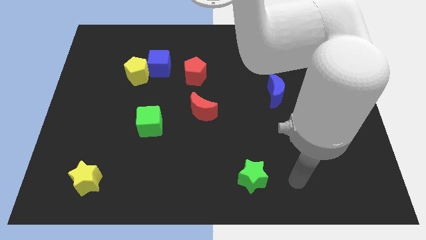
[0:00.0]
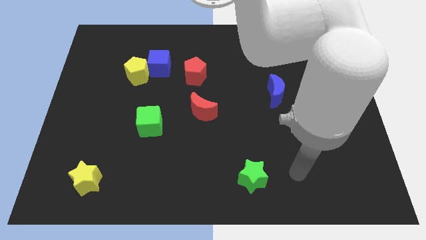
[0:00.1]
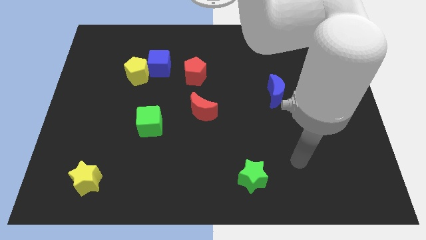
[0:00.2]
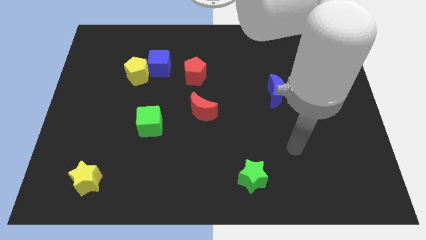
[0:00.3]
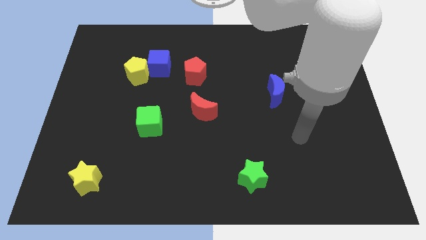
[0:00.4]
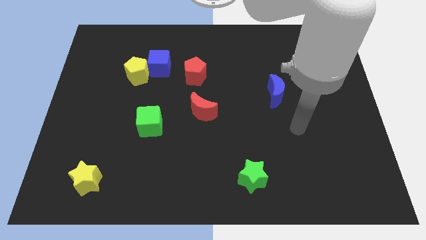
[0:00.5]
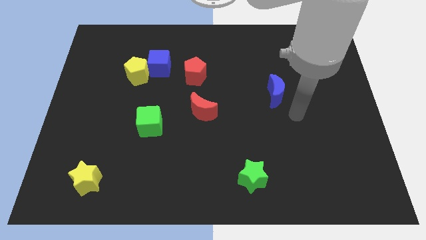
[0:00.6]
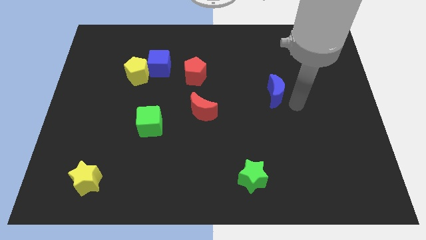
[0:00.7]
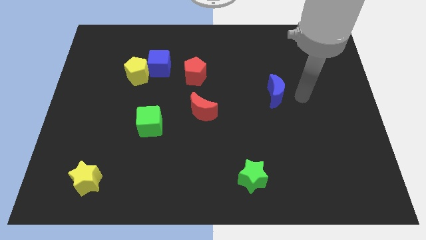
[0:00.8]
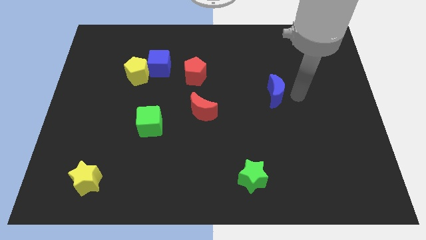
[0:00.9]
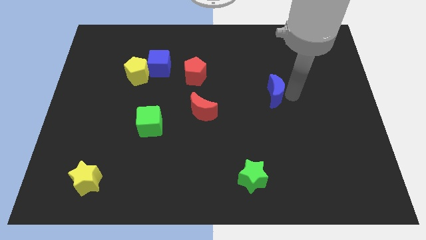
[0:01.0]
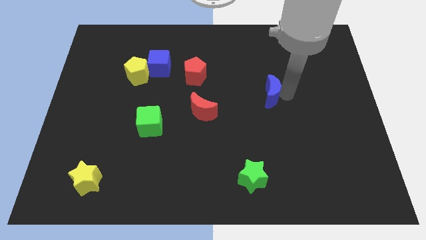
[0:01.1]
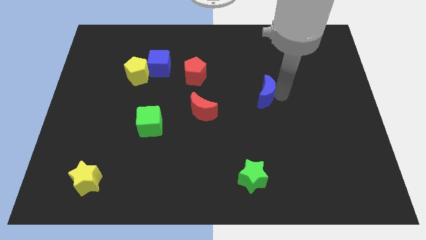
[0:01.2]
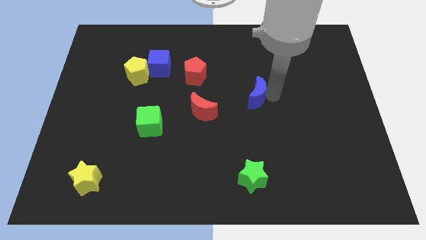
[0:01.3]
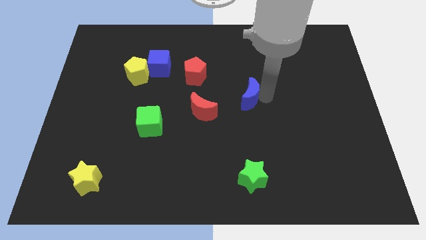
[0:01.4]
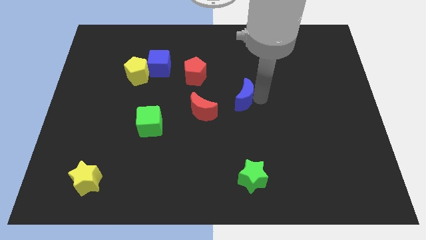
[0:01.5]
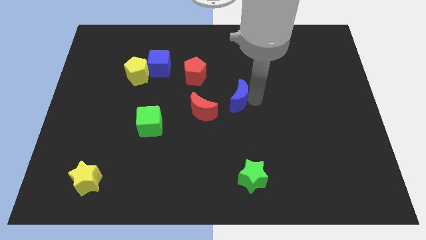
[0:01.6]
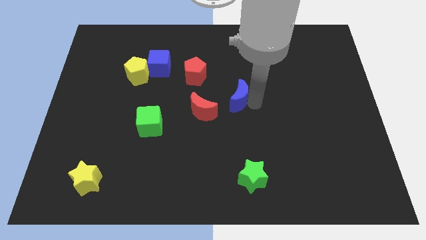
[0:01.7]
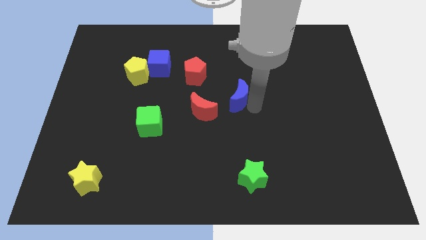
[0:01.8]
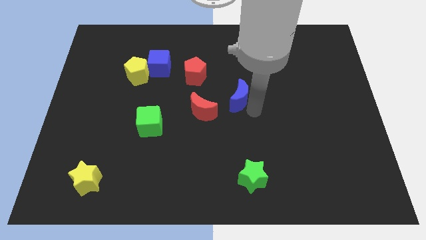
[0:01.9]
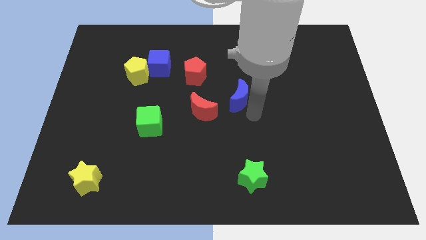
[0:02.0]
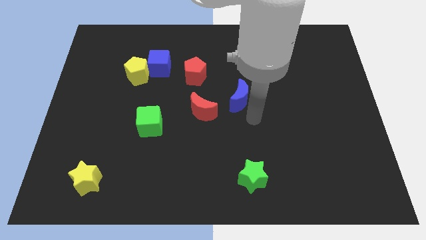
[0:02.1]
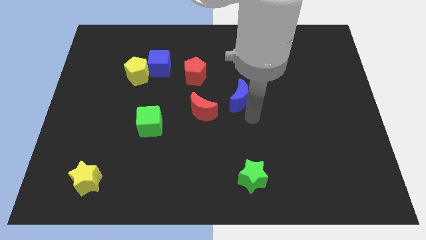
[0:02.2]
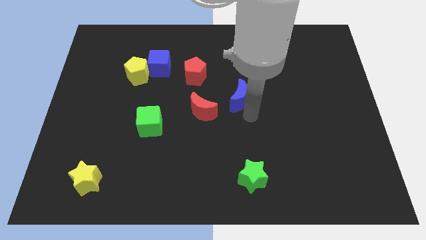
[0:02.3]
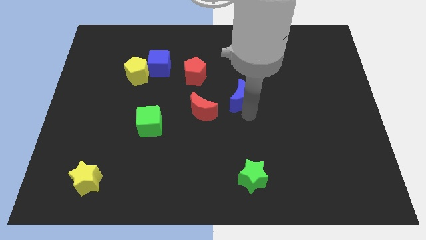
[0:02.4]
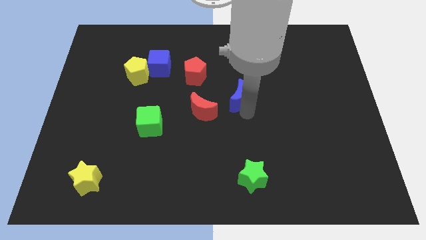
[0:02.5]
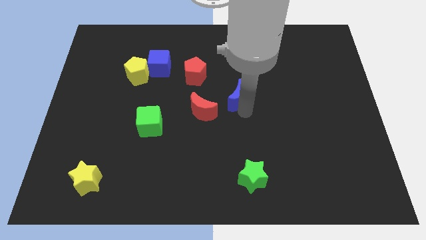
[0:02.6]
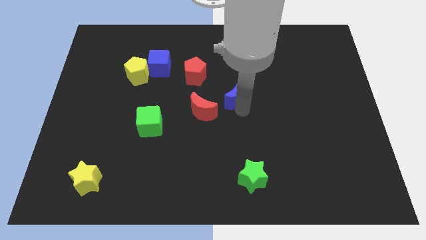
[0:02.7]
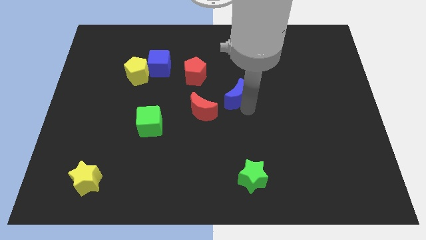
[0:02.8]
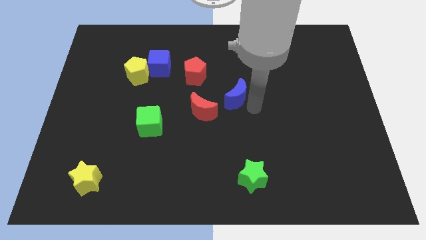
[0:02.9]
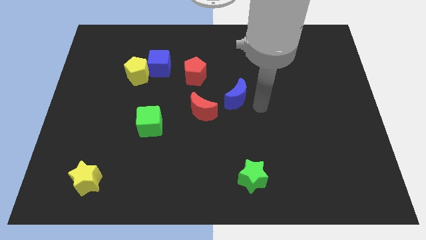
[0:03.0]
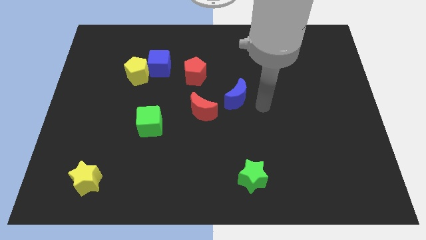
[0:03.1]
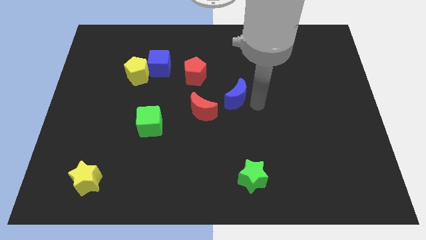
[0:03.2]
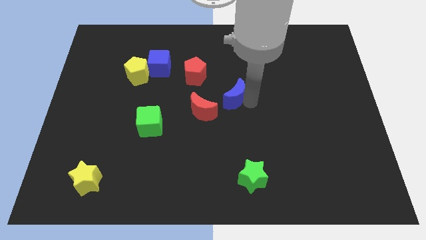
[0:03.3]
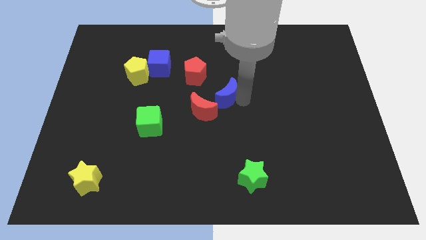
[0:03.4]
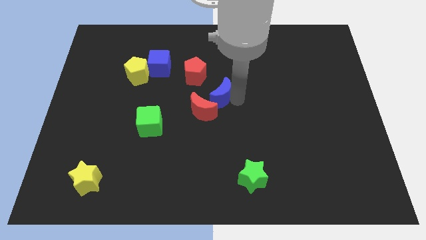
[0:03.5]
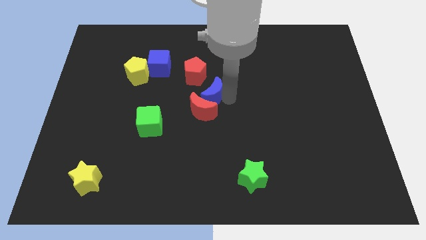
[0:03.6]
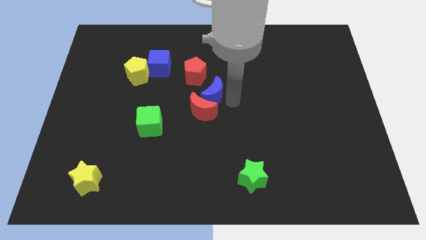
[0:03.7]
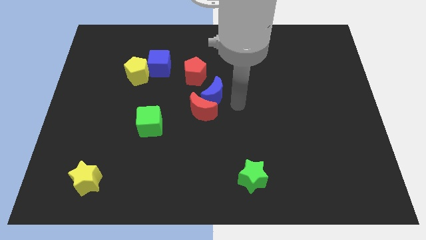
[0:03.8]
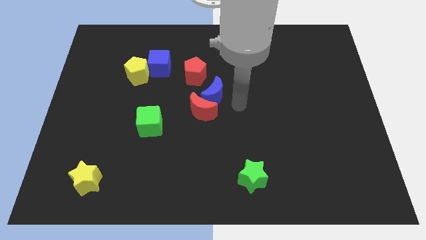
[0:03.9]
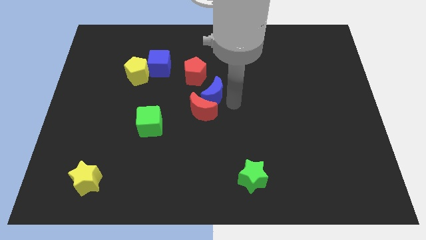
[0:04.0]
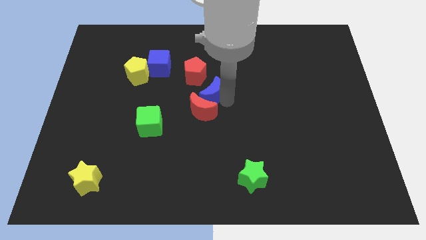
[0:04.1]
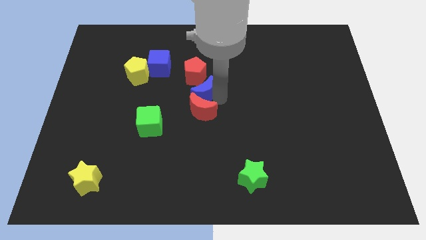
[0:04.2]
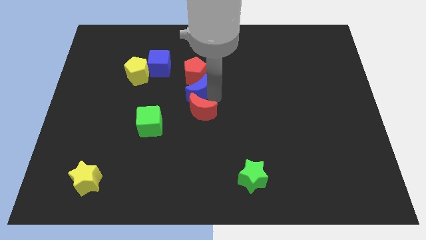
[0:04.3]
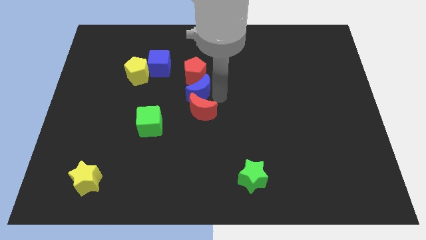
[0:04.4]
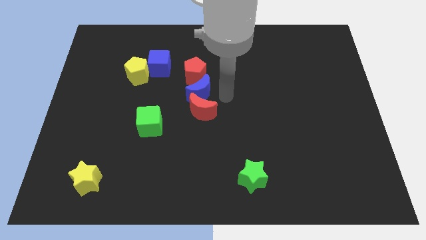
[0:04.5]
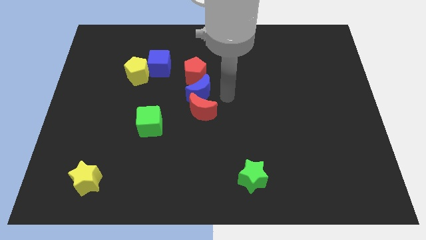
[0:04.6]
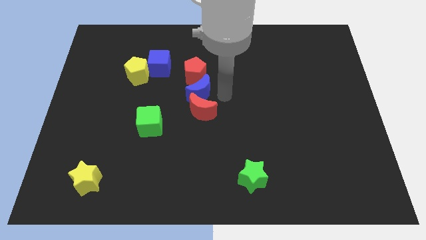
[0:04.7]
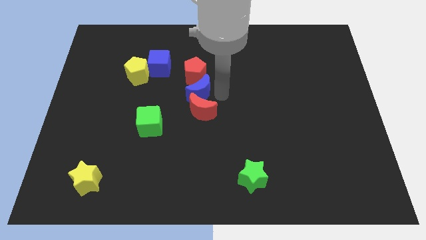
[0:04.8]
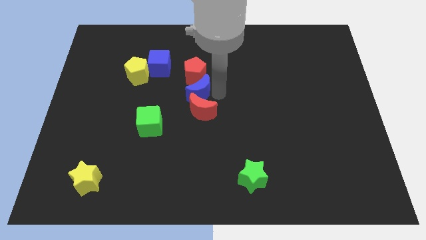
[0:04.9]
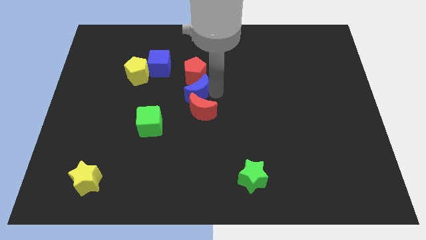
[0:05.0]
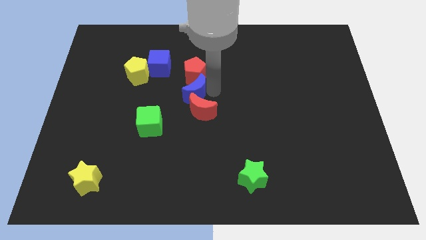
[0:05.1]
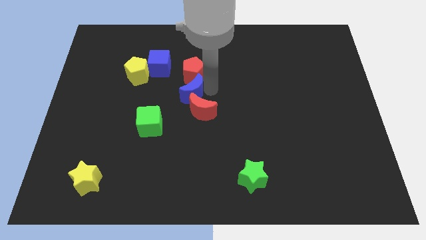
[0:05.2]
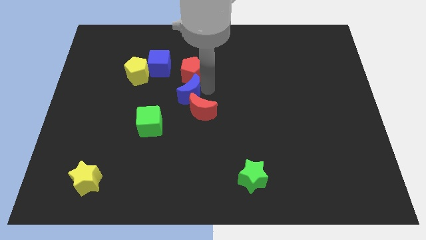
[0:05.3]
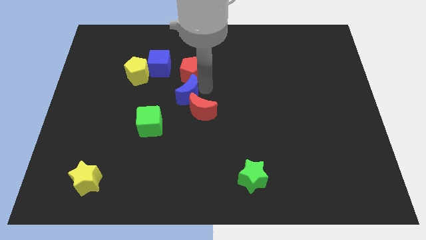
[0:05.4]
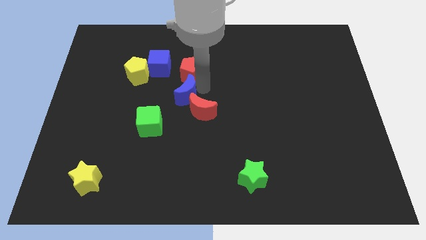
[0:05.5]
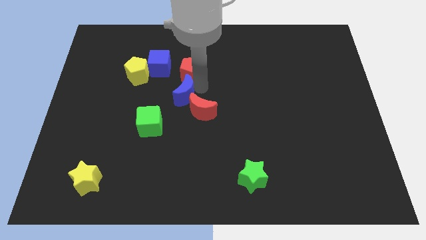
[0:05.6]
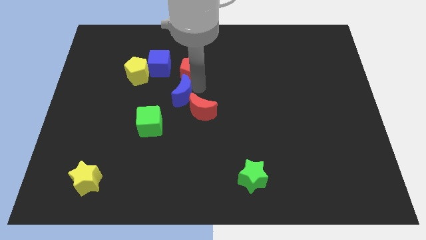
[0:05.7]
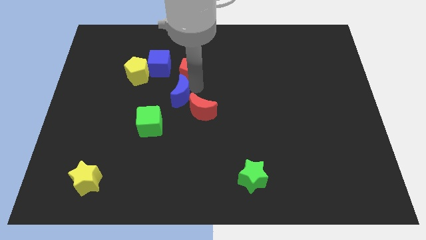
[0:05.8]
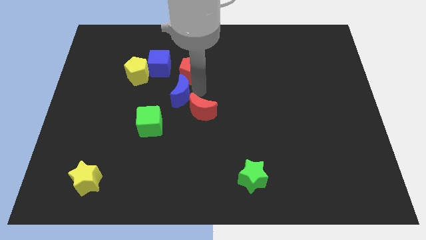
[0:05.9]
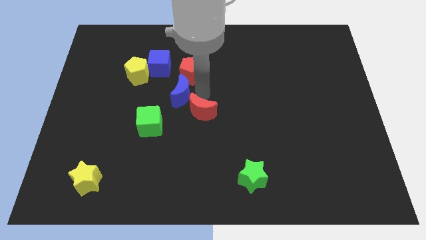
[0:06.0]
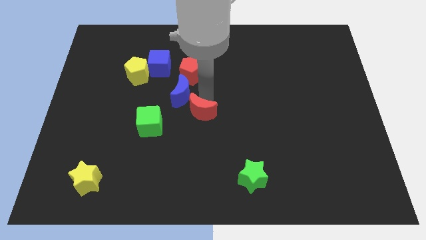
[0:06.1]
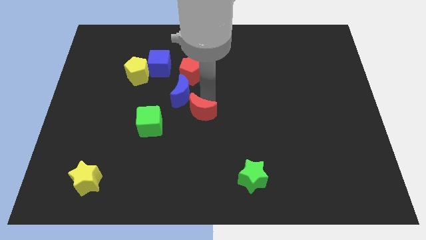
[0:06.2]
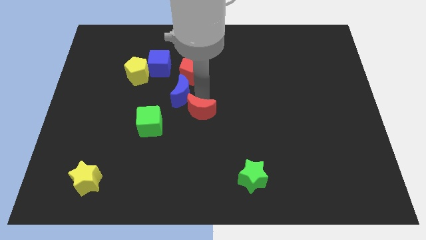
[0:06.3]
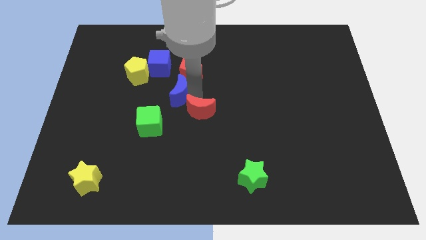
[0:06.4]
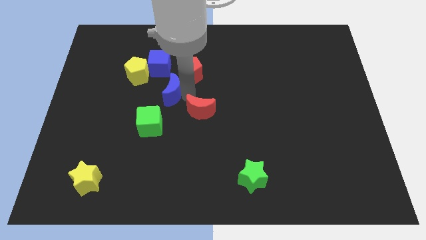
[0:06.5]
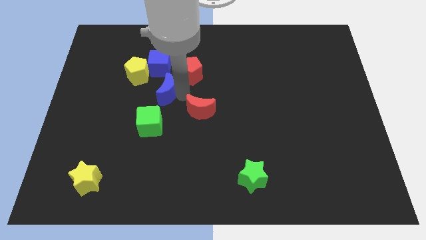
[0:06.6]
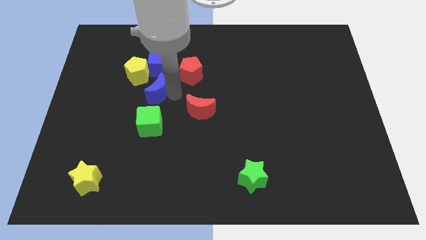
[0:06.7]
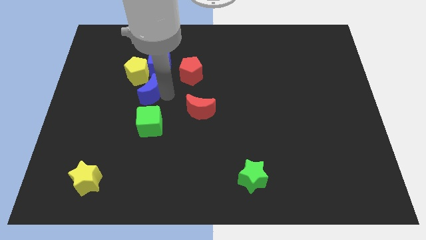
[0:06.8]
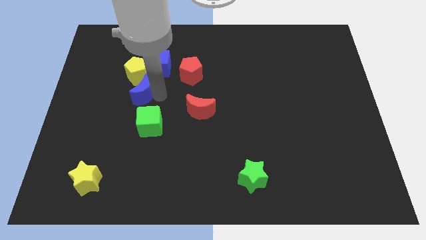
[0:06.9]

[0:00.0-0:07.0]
push the blue moon diagonally down and to the left of the blue cube

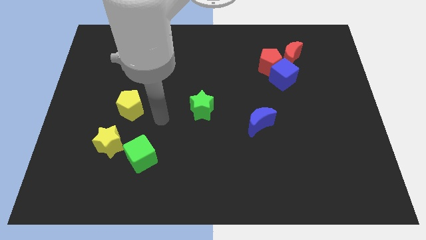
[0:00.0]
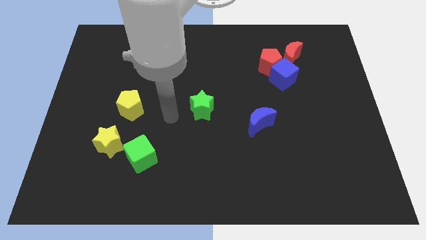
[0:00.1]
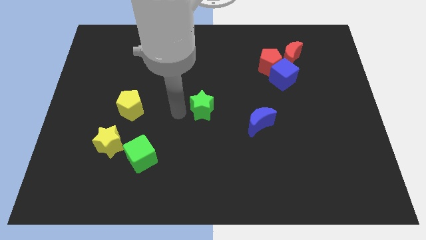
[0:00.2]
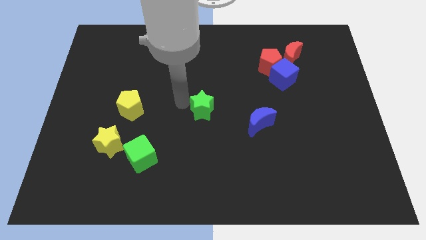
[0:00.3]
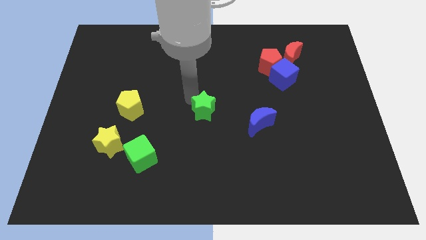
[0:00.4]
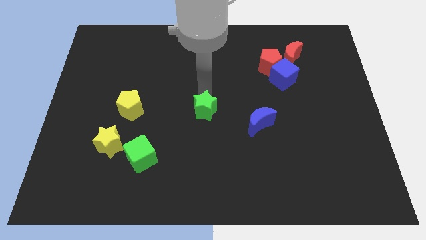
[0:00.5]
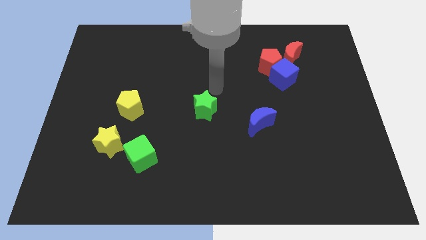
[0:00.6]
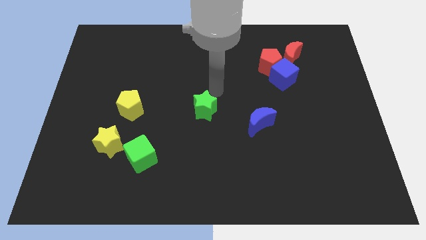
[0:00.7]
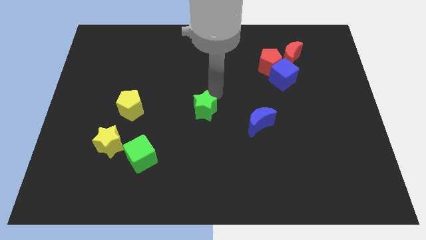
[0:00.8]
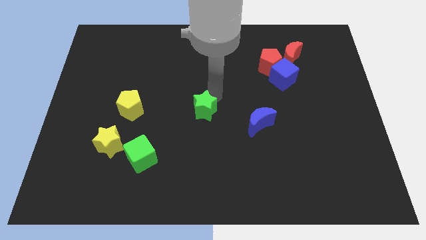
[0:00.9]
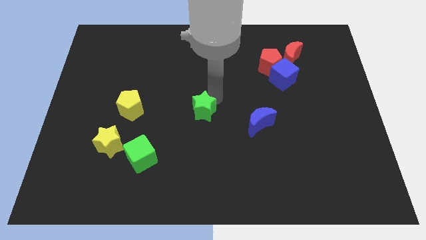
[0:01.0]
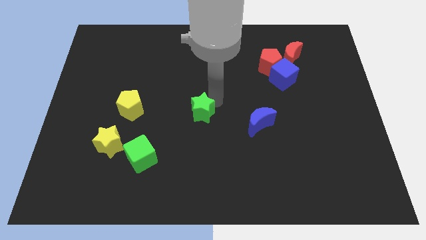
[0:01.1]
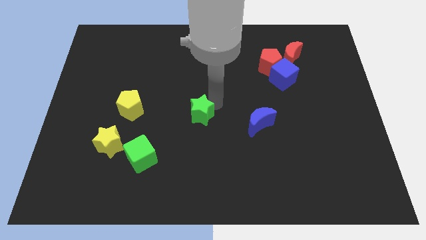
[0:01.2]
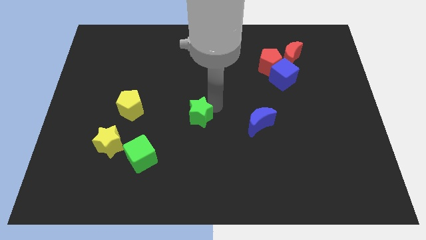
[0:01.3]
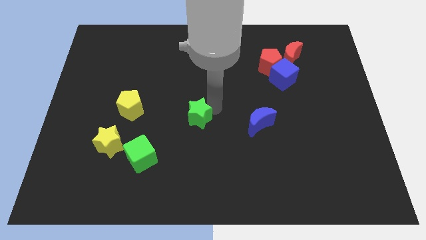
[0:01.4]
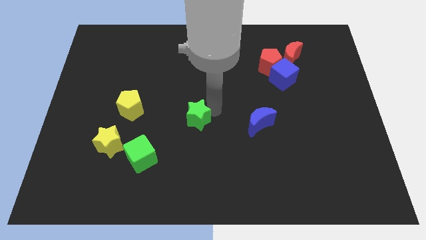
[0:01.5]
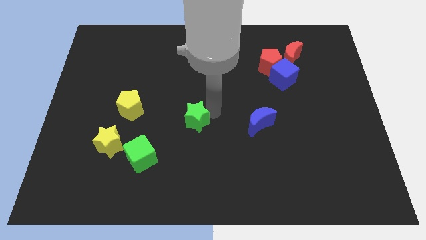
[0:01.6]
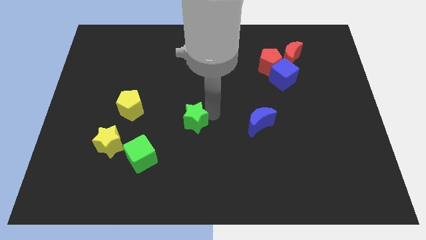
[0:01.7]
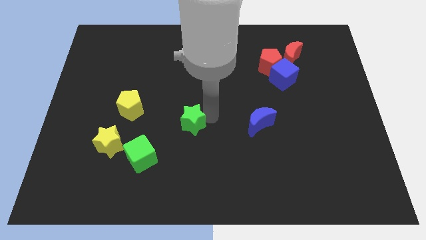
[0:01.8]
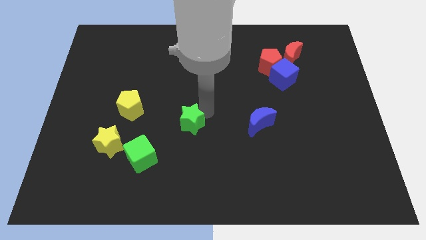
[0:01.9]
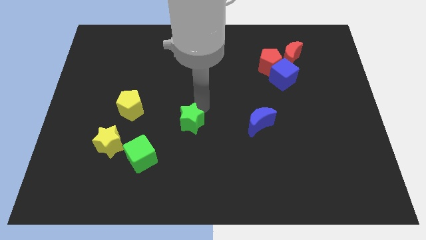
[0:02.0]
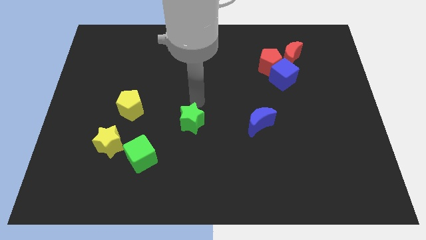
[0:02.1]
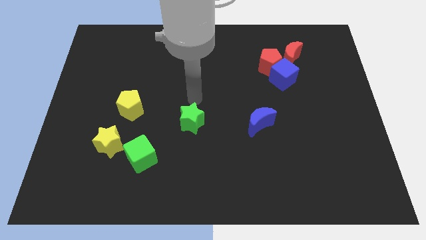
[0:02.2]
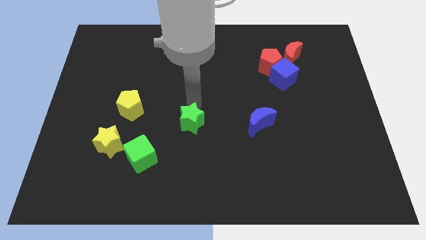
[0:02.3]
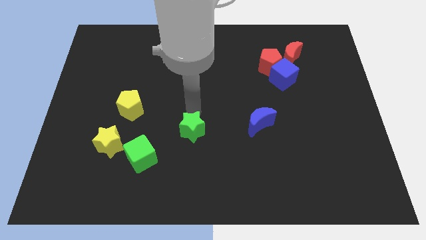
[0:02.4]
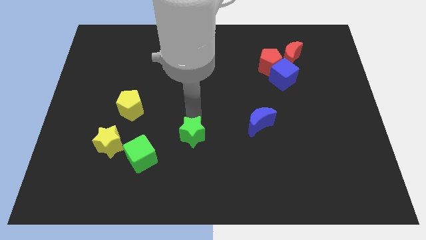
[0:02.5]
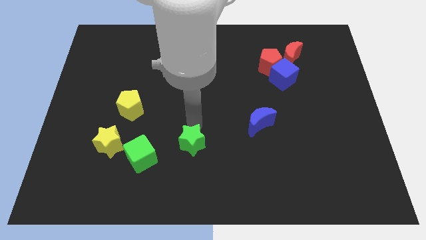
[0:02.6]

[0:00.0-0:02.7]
move the green star to the right side of the green cube
